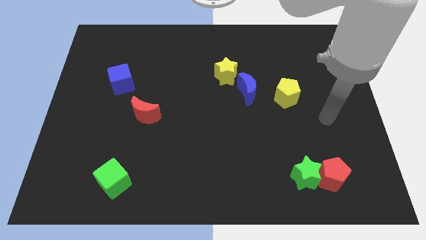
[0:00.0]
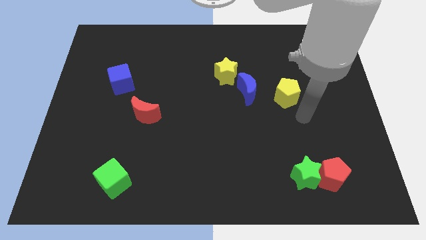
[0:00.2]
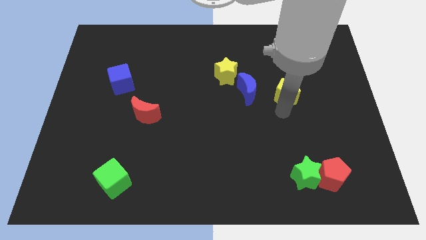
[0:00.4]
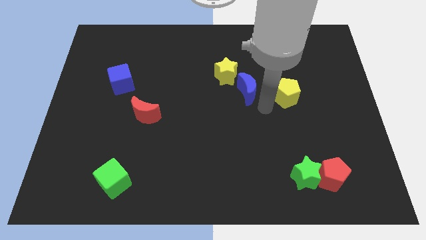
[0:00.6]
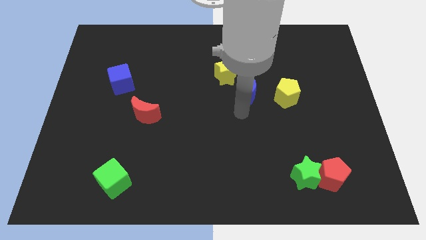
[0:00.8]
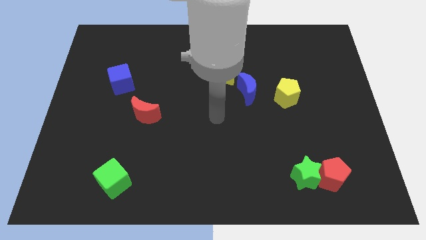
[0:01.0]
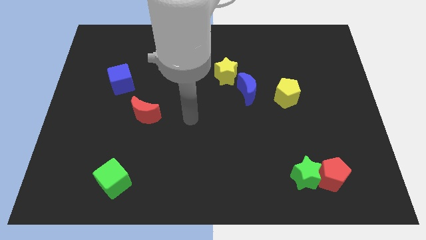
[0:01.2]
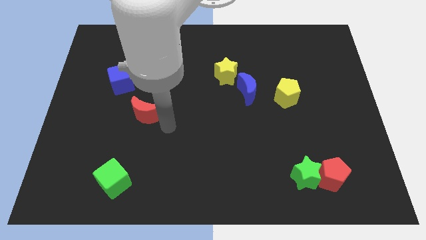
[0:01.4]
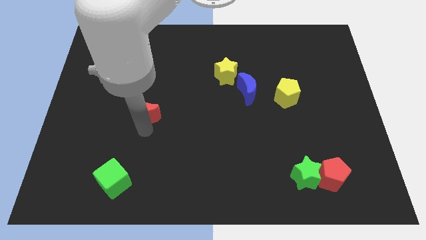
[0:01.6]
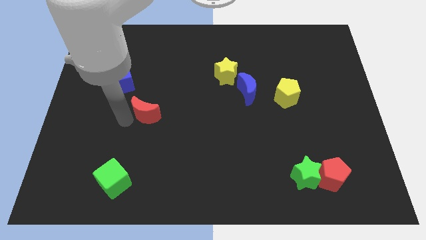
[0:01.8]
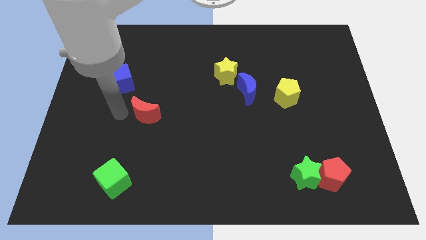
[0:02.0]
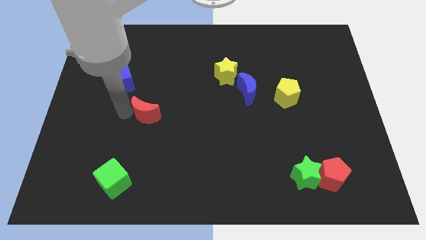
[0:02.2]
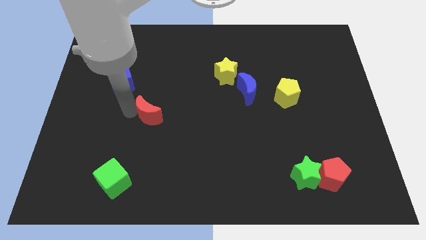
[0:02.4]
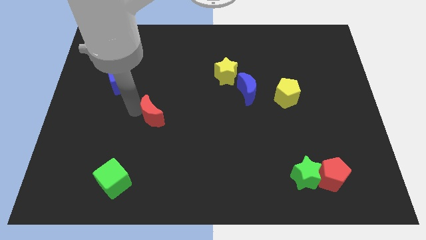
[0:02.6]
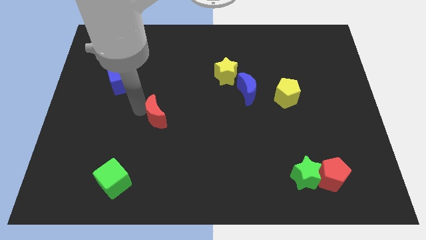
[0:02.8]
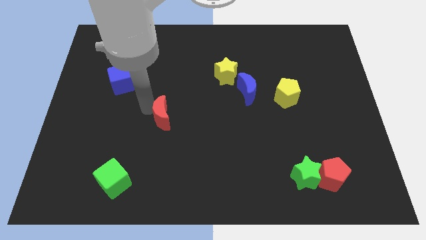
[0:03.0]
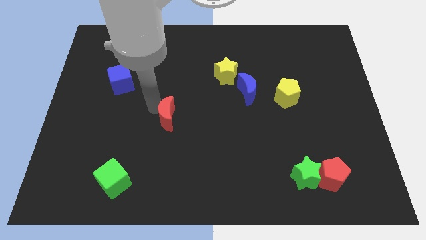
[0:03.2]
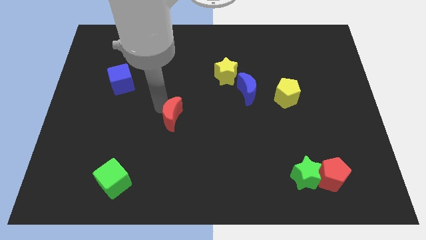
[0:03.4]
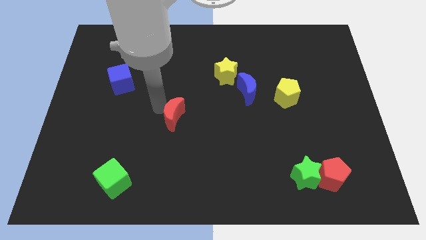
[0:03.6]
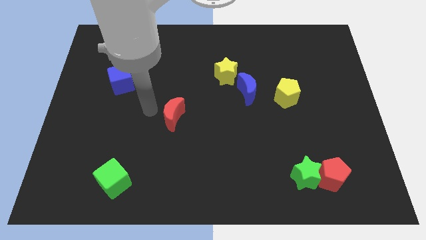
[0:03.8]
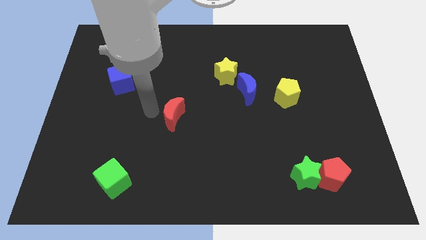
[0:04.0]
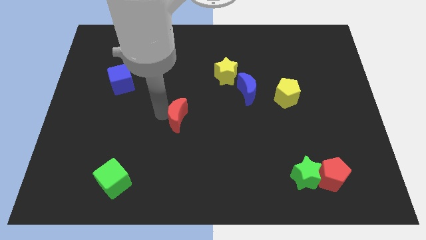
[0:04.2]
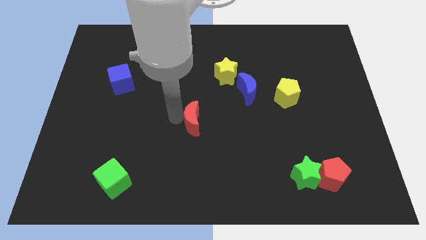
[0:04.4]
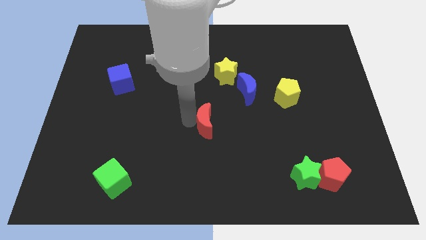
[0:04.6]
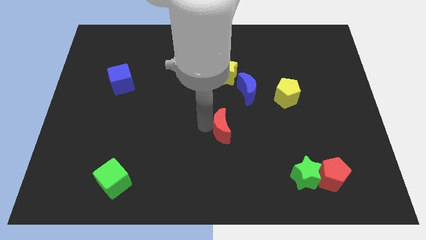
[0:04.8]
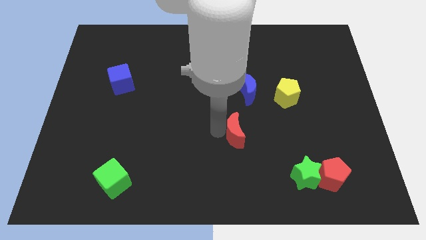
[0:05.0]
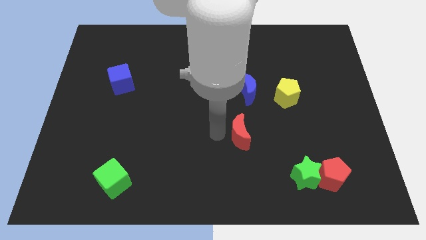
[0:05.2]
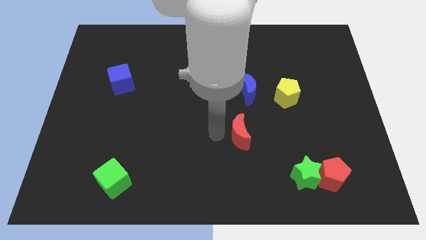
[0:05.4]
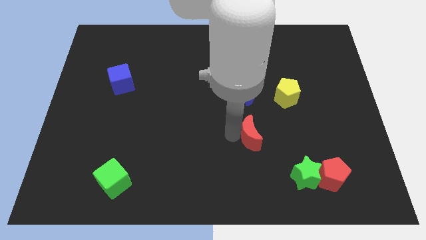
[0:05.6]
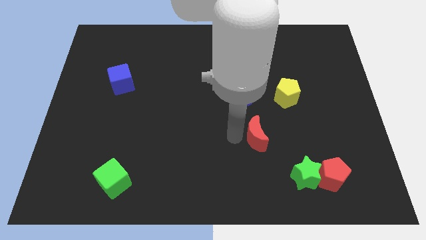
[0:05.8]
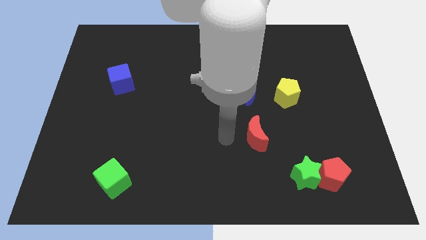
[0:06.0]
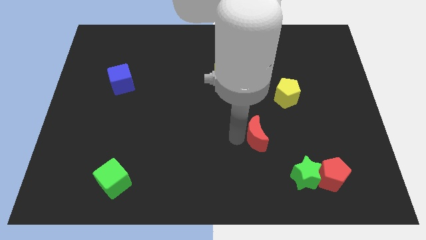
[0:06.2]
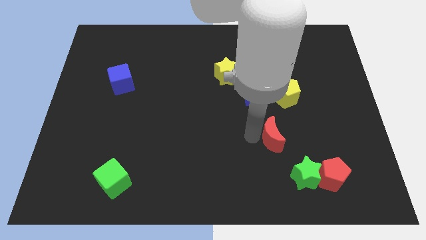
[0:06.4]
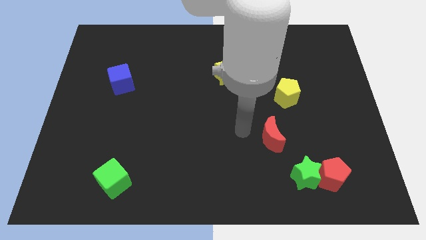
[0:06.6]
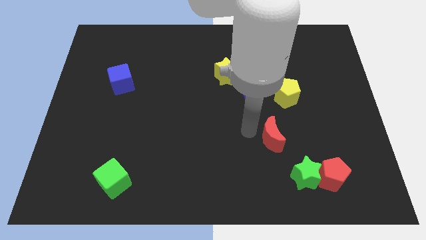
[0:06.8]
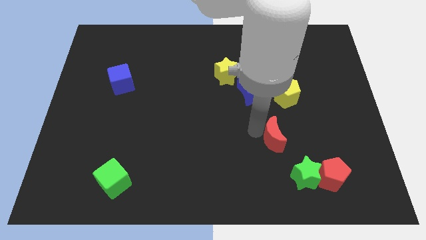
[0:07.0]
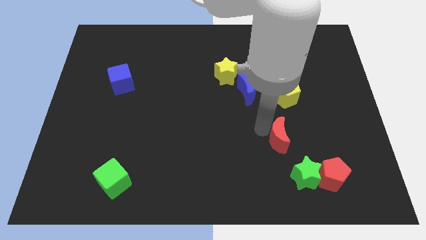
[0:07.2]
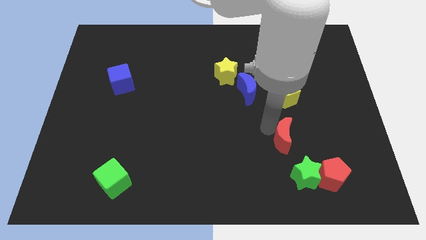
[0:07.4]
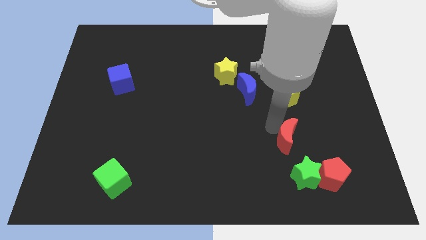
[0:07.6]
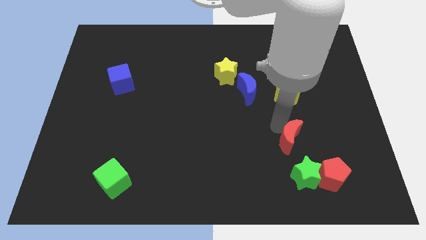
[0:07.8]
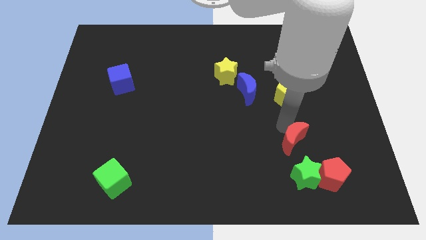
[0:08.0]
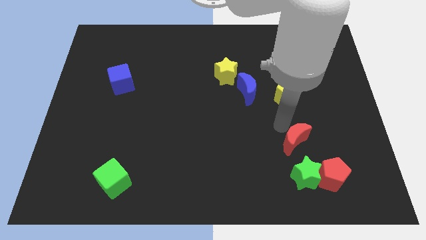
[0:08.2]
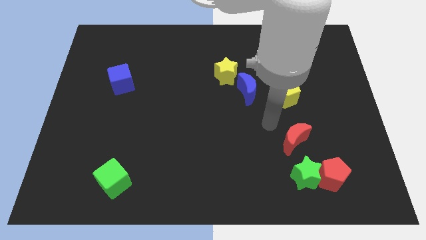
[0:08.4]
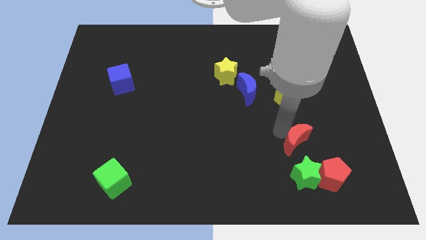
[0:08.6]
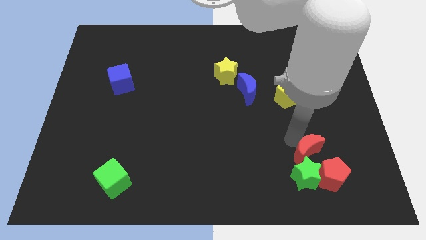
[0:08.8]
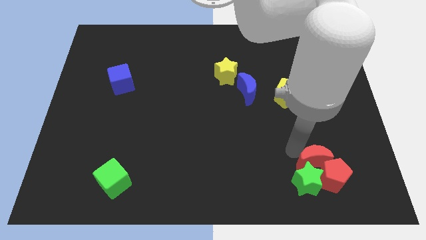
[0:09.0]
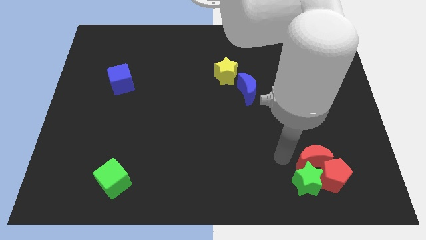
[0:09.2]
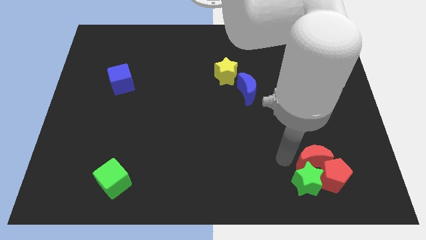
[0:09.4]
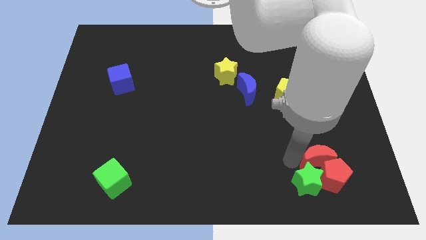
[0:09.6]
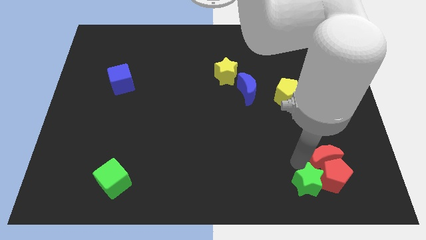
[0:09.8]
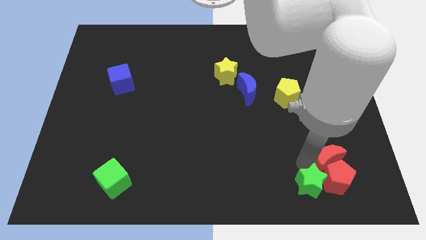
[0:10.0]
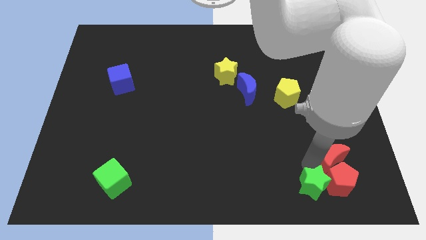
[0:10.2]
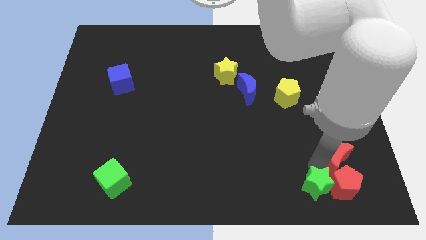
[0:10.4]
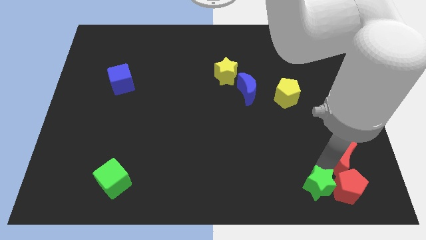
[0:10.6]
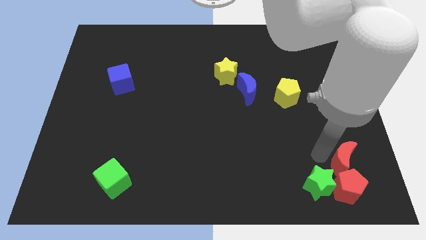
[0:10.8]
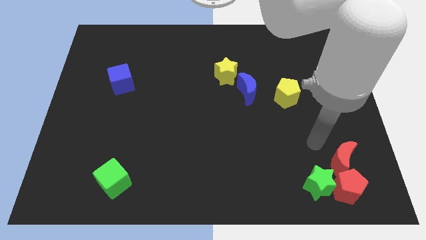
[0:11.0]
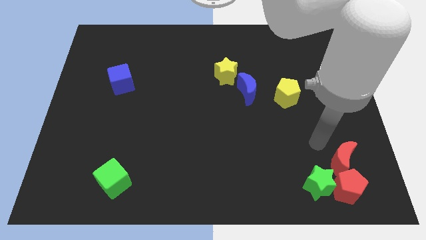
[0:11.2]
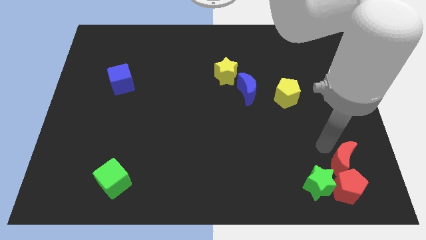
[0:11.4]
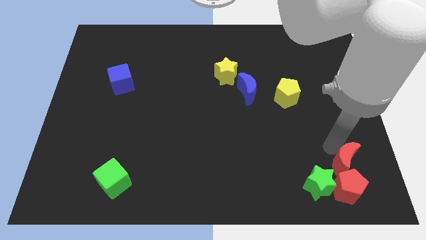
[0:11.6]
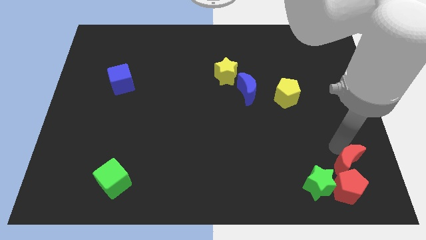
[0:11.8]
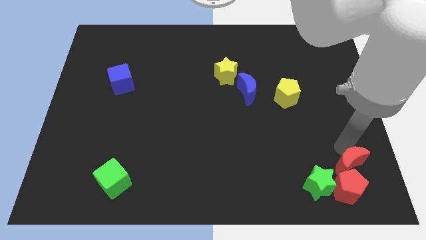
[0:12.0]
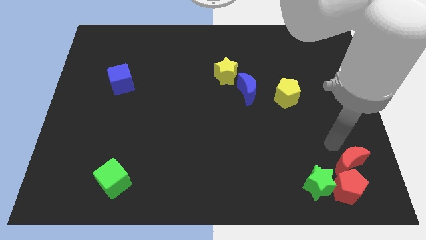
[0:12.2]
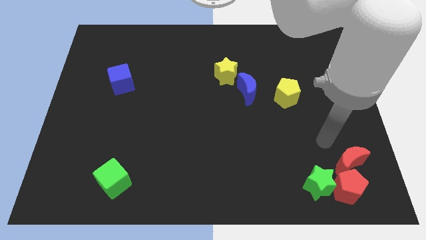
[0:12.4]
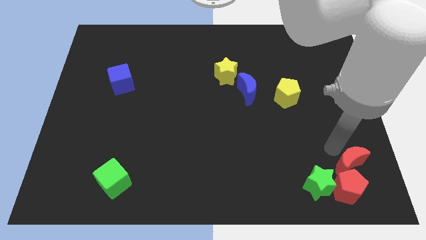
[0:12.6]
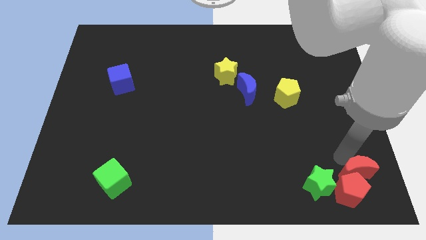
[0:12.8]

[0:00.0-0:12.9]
move the red moon to the bottom right

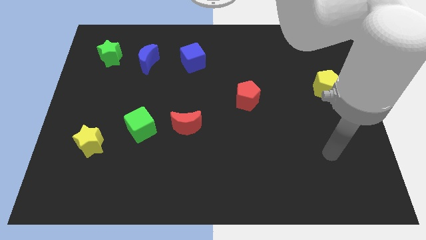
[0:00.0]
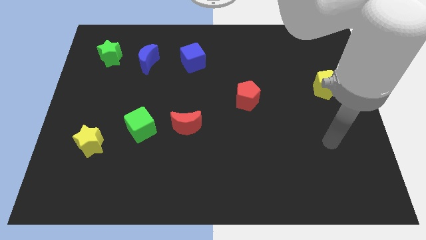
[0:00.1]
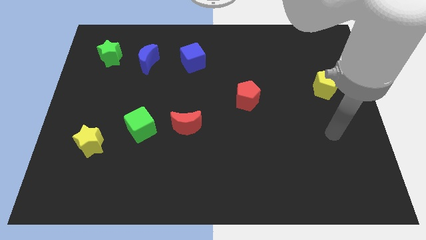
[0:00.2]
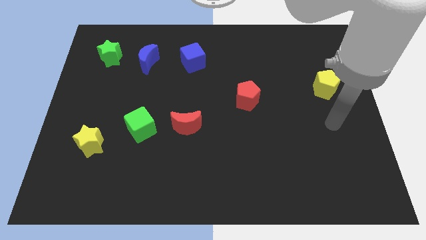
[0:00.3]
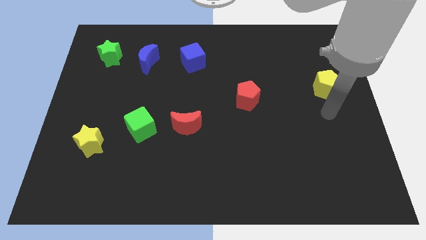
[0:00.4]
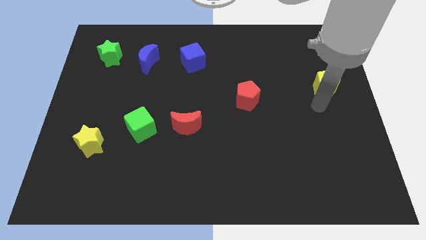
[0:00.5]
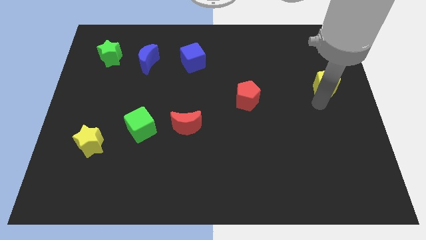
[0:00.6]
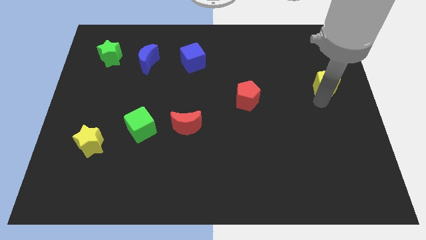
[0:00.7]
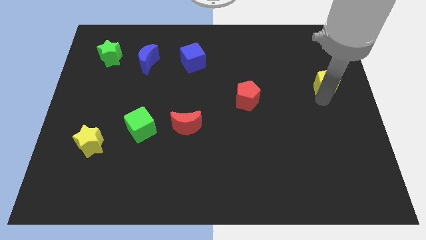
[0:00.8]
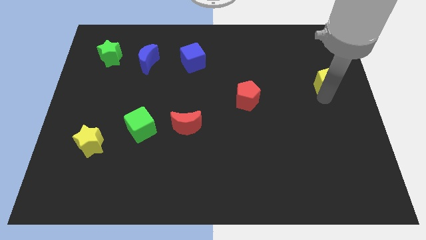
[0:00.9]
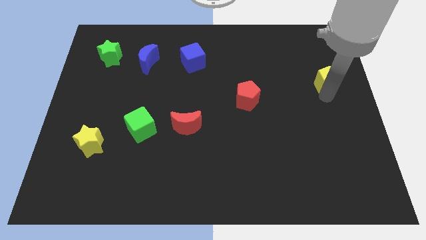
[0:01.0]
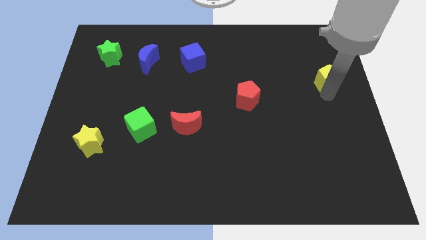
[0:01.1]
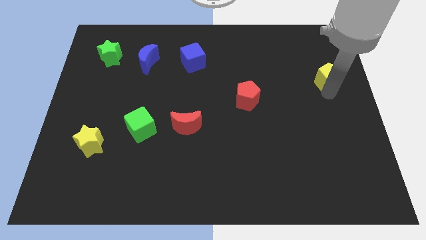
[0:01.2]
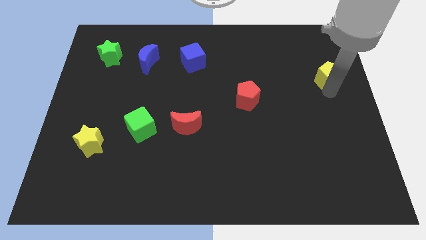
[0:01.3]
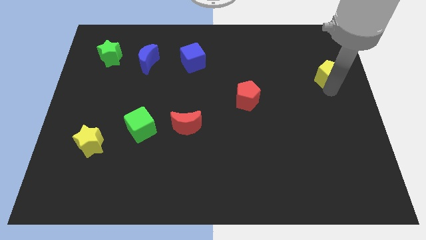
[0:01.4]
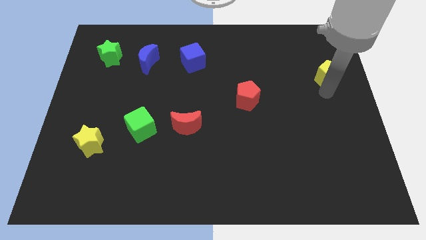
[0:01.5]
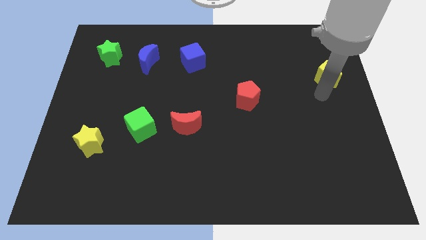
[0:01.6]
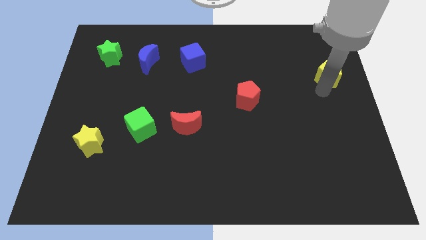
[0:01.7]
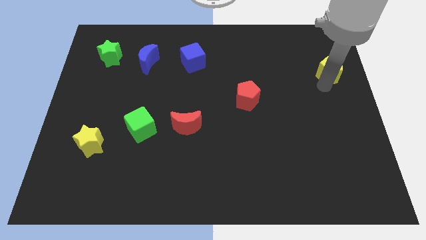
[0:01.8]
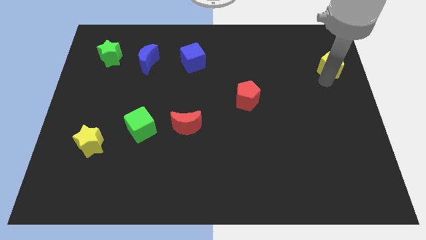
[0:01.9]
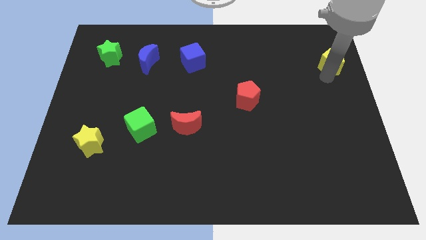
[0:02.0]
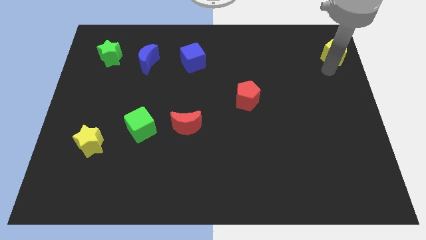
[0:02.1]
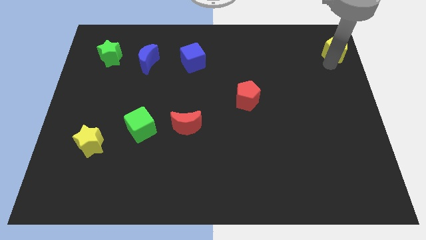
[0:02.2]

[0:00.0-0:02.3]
push the yellow pentagon to the top right of the board
